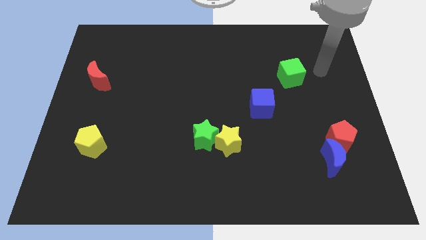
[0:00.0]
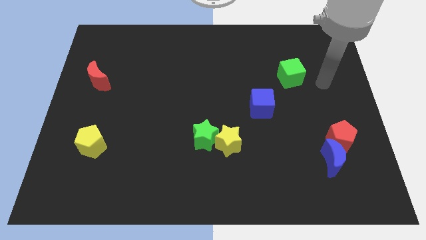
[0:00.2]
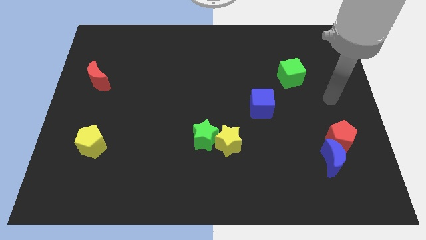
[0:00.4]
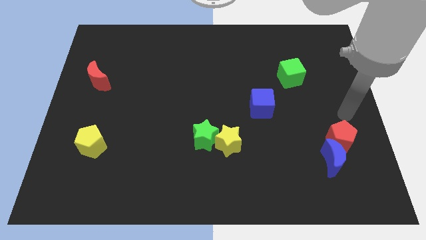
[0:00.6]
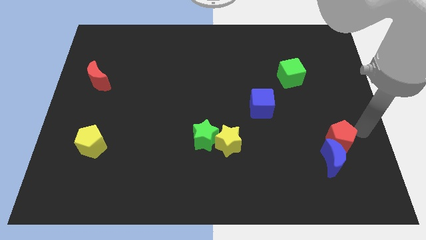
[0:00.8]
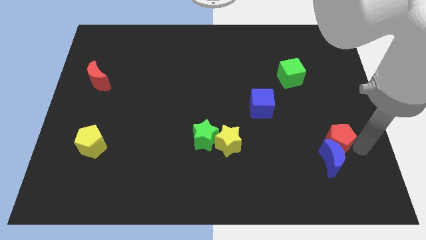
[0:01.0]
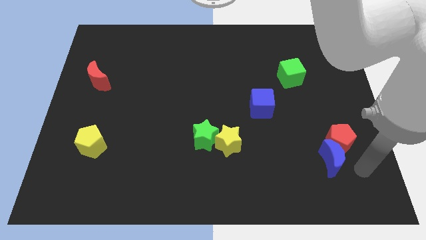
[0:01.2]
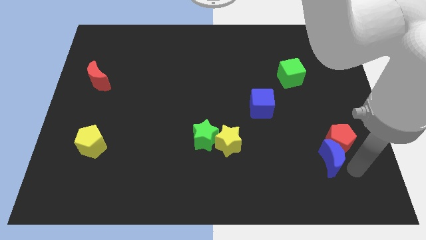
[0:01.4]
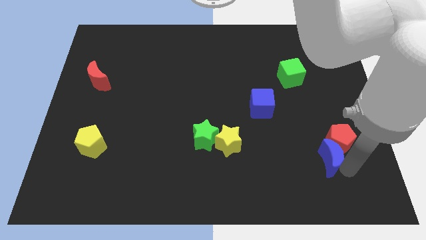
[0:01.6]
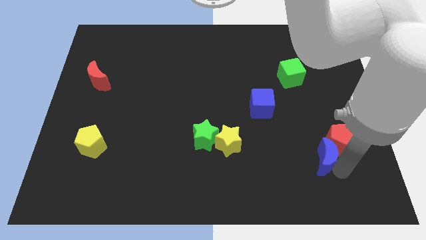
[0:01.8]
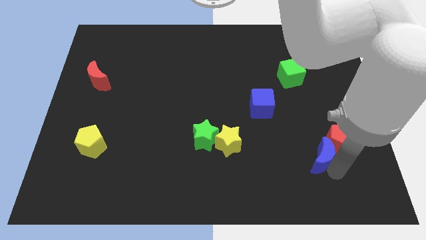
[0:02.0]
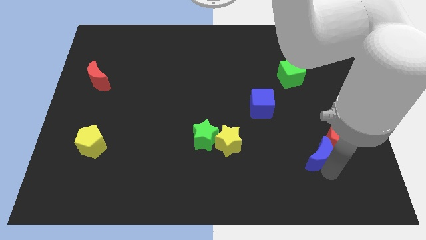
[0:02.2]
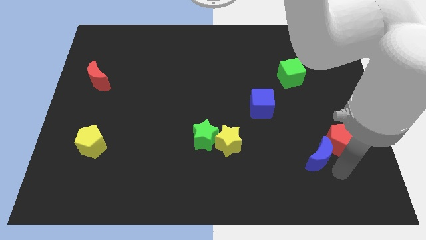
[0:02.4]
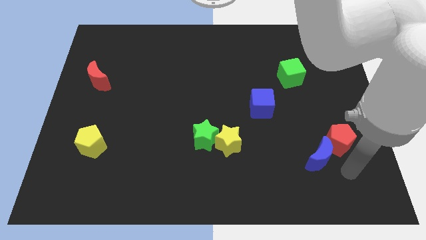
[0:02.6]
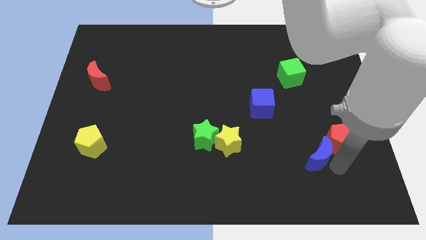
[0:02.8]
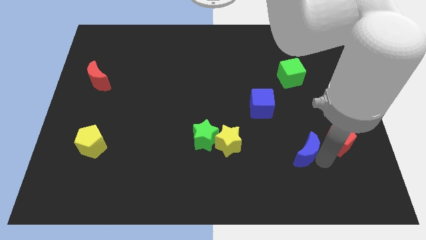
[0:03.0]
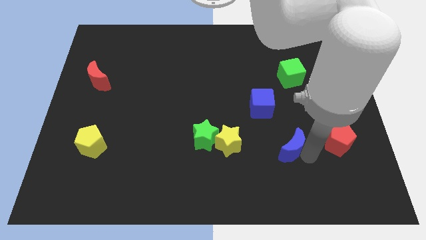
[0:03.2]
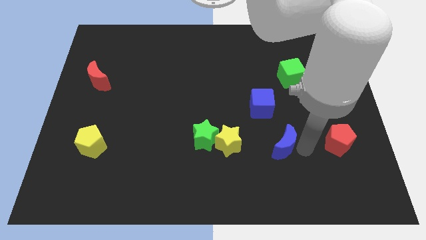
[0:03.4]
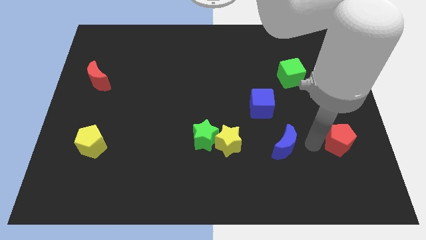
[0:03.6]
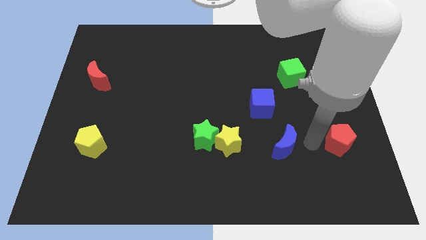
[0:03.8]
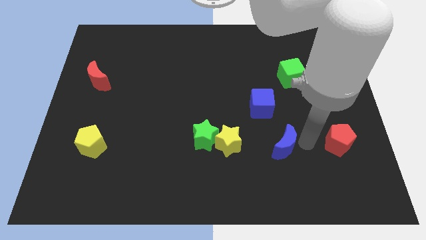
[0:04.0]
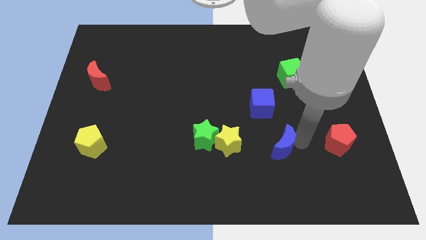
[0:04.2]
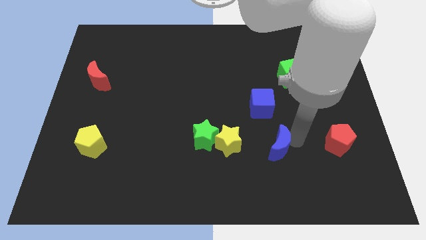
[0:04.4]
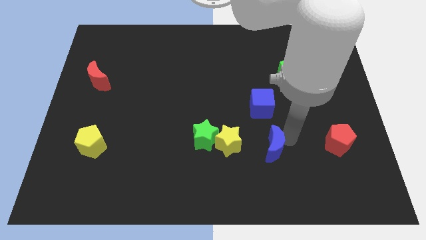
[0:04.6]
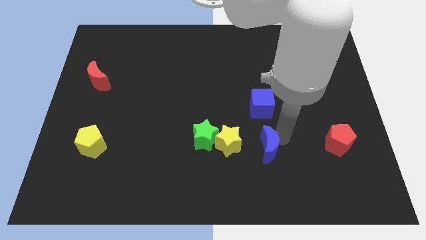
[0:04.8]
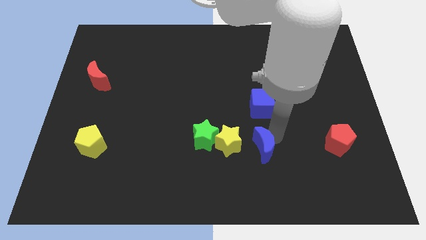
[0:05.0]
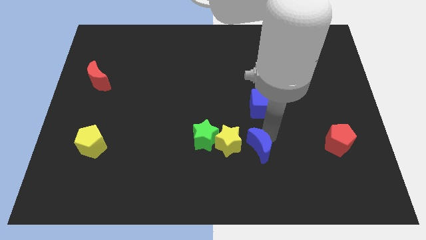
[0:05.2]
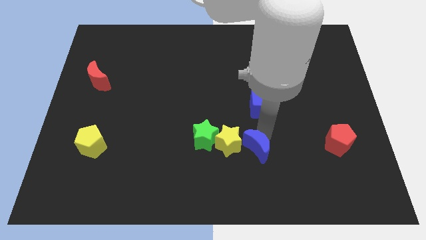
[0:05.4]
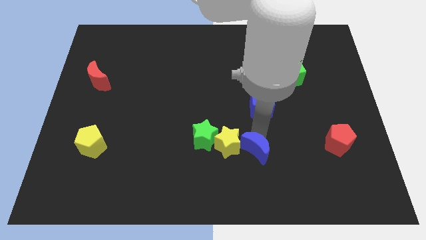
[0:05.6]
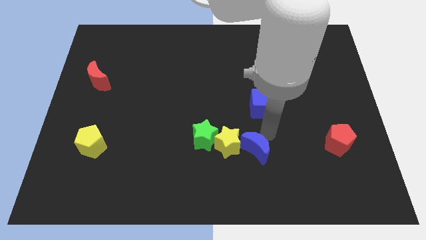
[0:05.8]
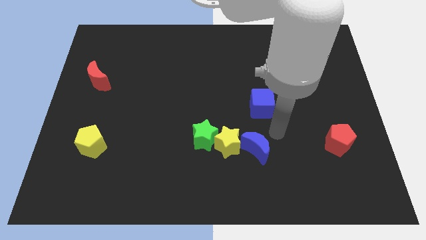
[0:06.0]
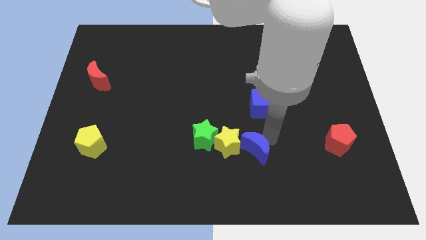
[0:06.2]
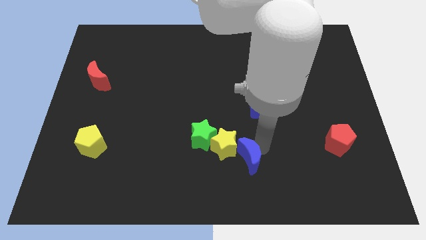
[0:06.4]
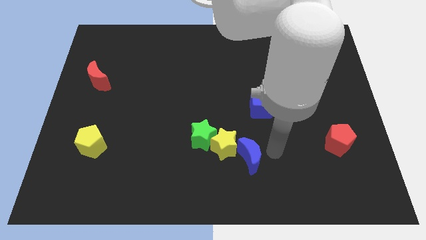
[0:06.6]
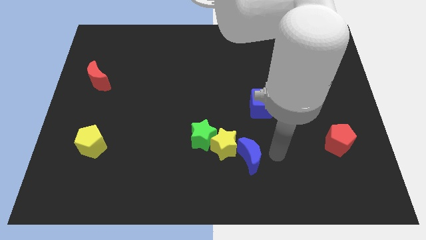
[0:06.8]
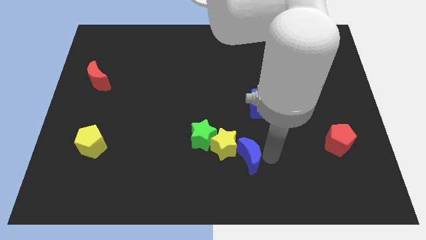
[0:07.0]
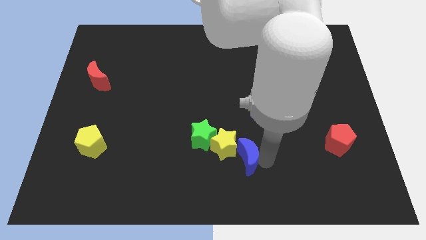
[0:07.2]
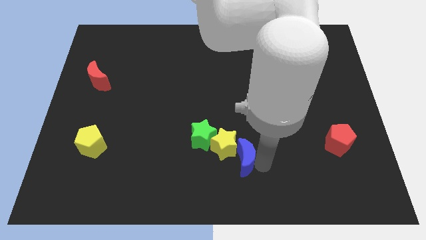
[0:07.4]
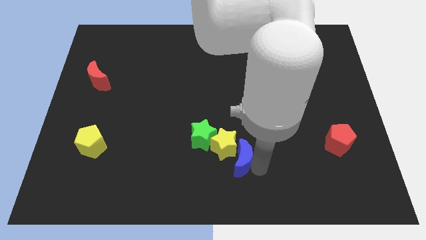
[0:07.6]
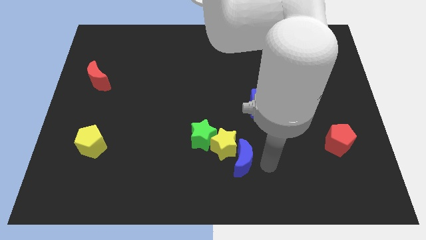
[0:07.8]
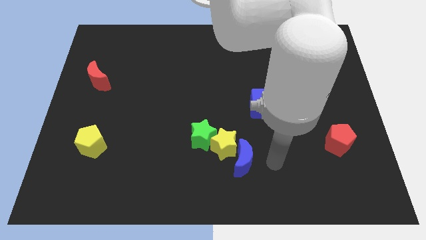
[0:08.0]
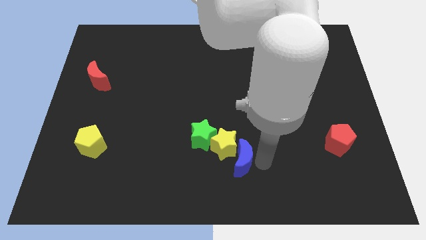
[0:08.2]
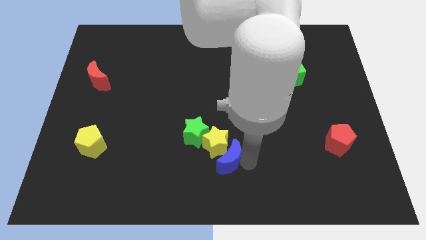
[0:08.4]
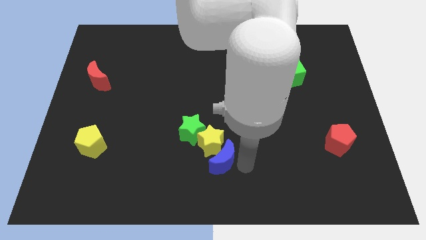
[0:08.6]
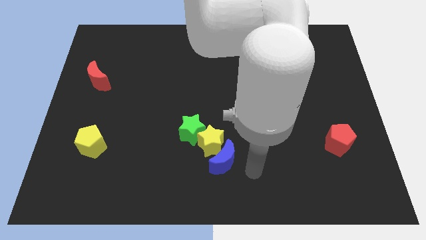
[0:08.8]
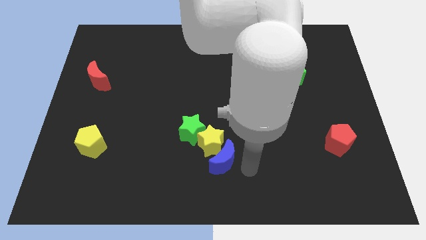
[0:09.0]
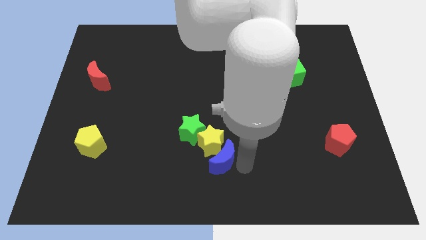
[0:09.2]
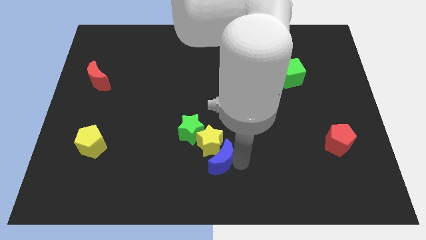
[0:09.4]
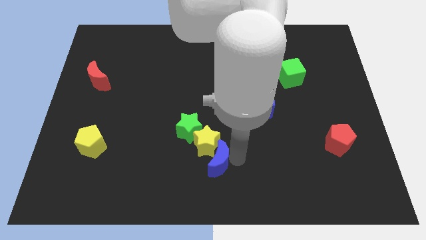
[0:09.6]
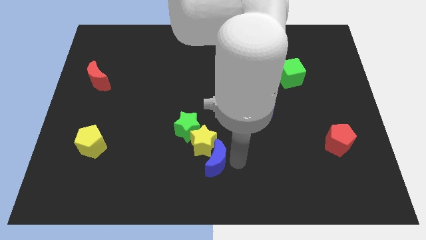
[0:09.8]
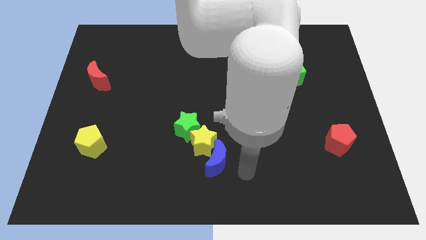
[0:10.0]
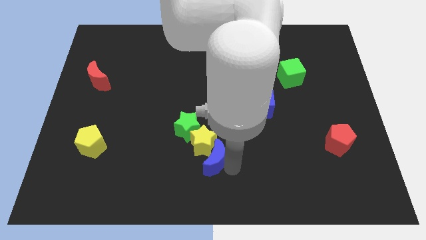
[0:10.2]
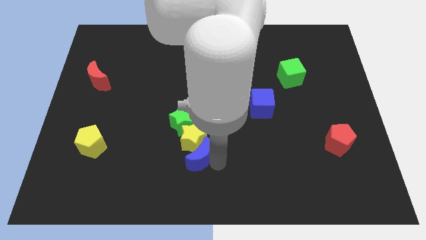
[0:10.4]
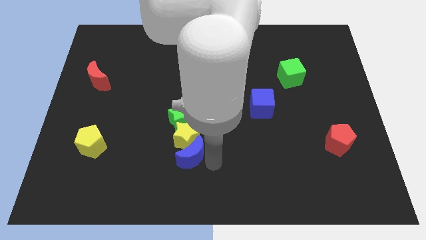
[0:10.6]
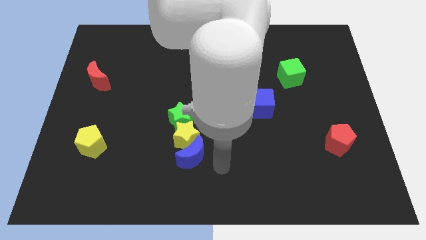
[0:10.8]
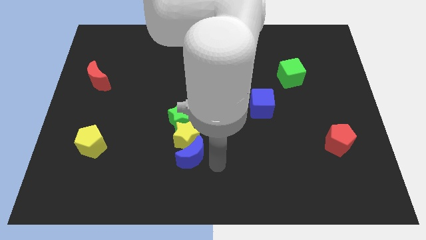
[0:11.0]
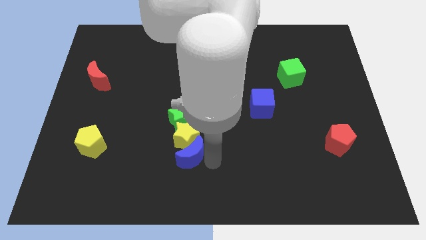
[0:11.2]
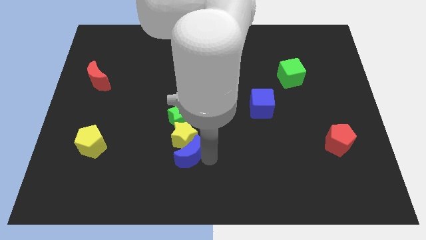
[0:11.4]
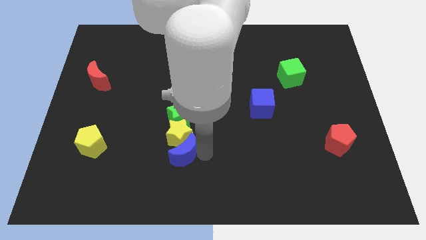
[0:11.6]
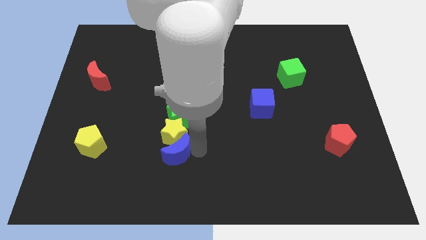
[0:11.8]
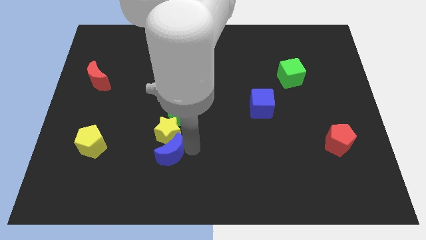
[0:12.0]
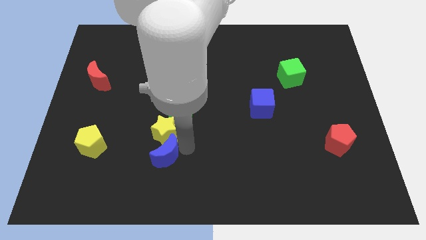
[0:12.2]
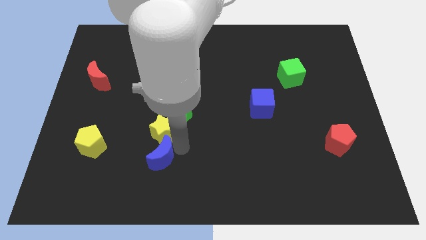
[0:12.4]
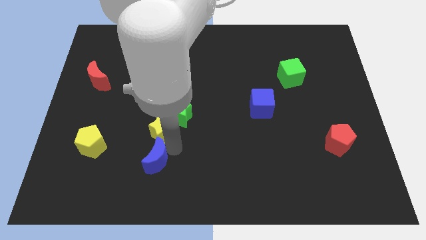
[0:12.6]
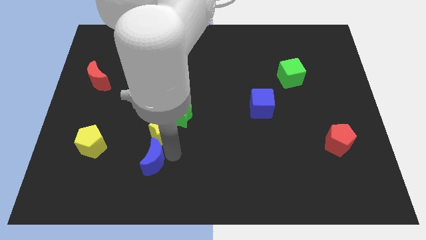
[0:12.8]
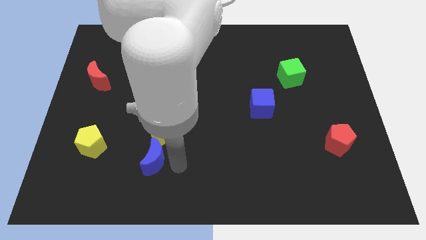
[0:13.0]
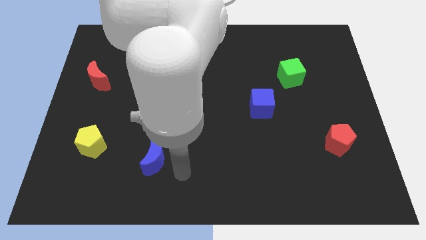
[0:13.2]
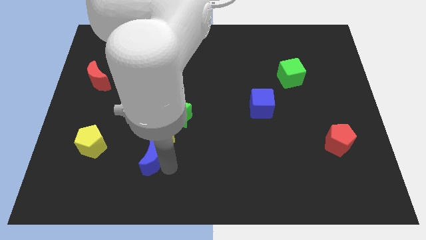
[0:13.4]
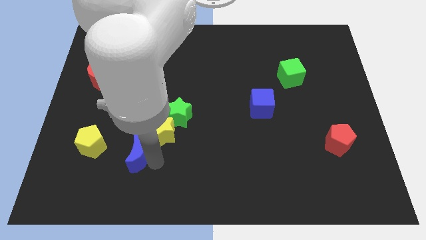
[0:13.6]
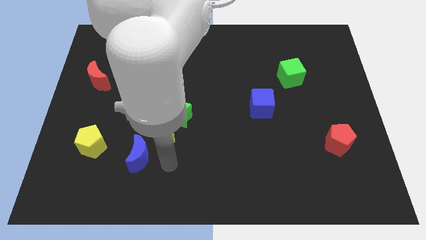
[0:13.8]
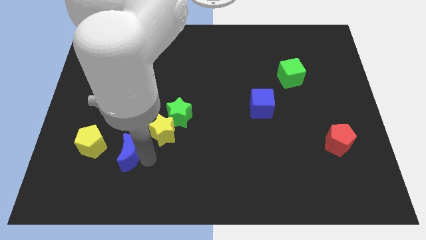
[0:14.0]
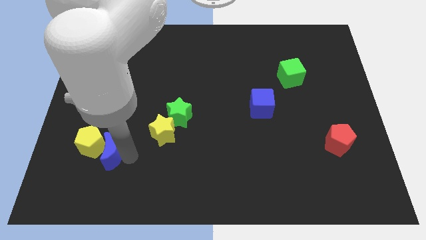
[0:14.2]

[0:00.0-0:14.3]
slide the blue moon towards the yellow pentagon
